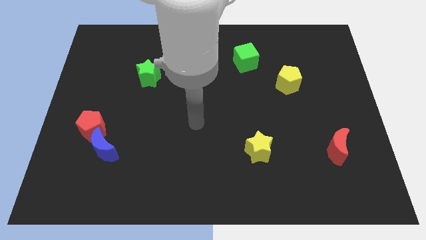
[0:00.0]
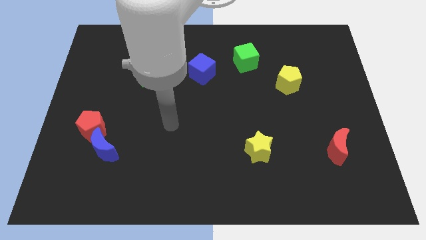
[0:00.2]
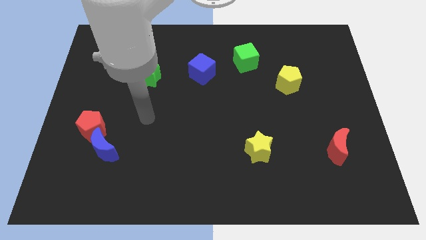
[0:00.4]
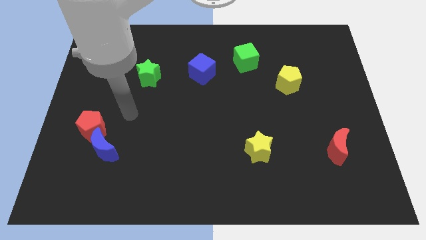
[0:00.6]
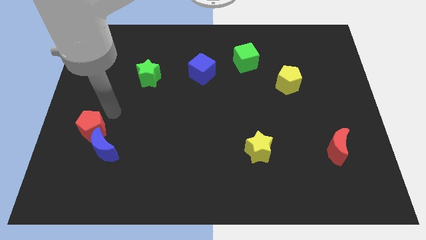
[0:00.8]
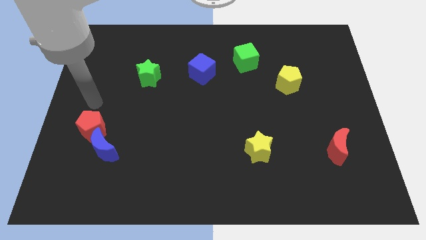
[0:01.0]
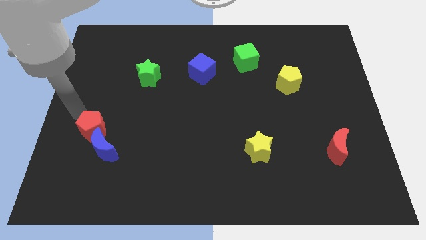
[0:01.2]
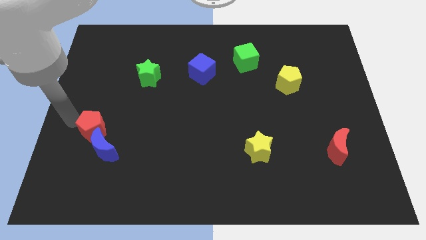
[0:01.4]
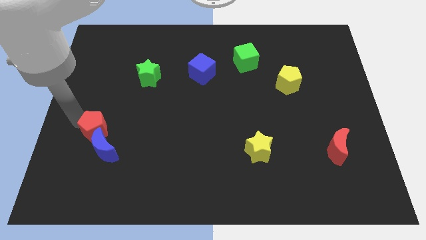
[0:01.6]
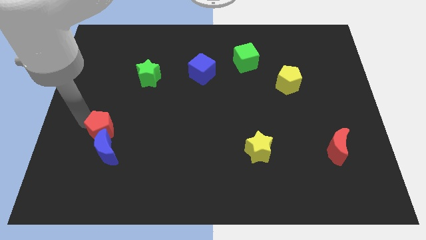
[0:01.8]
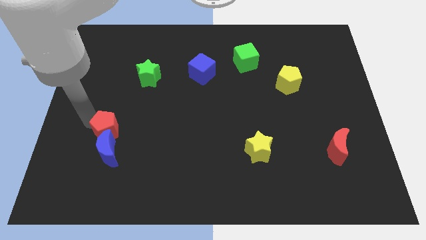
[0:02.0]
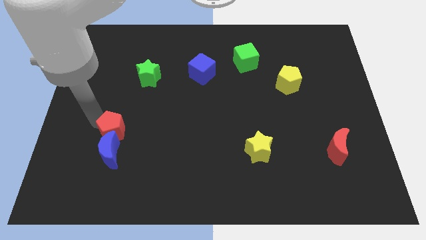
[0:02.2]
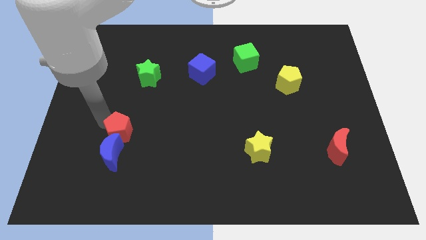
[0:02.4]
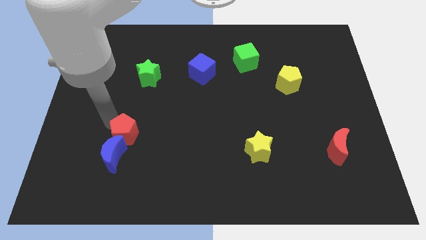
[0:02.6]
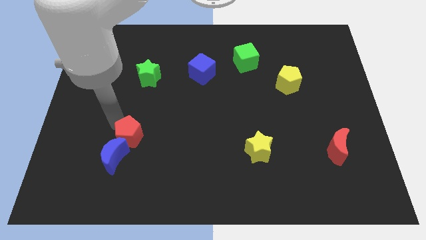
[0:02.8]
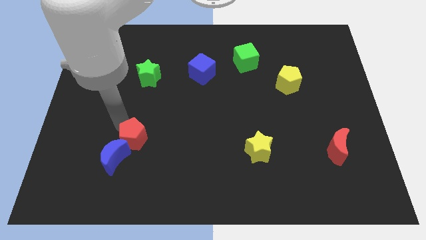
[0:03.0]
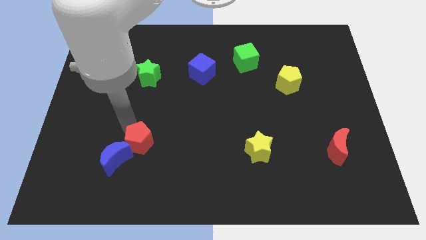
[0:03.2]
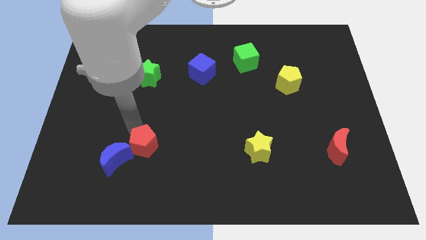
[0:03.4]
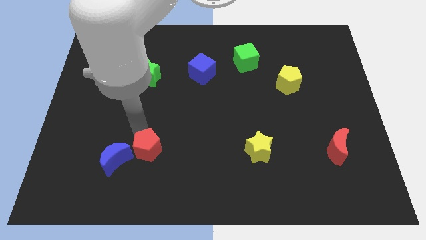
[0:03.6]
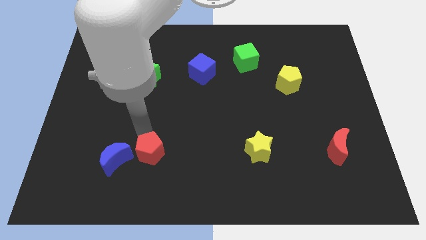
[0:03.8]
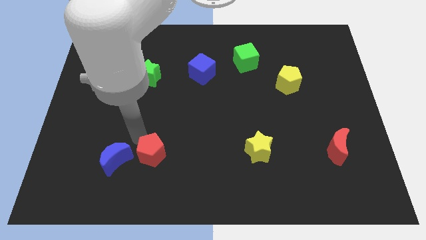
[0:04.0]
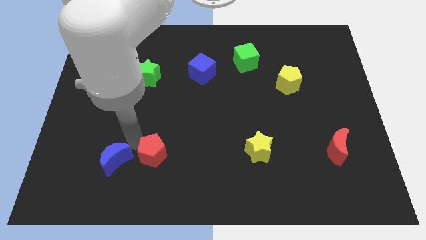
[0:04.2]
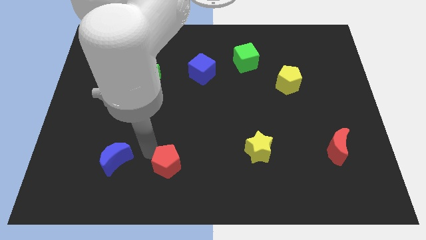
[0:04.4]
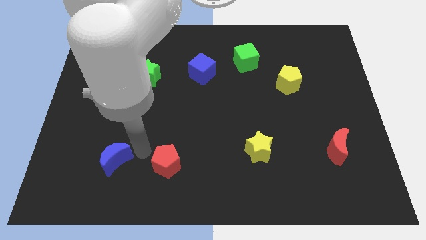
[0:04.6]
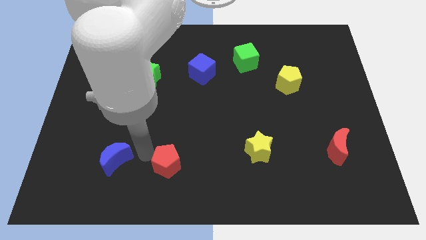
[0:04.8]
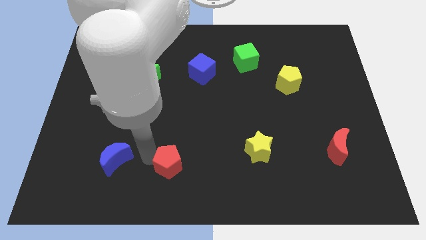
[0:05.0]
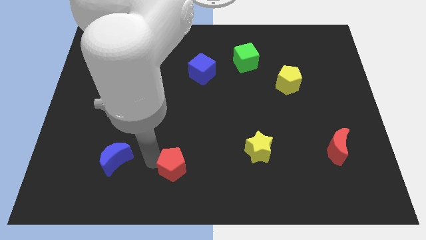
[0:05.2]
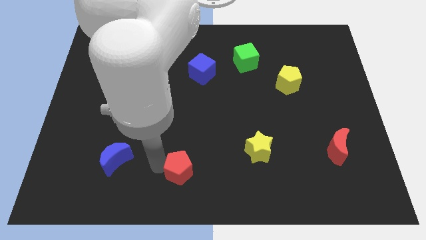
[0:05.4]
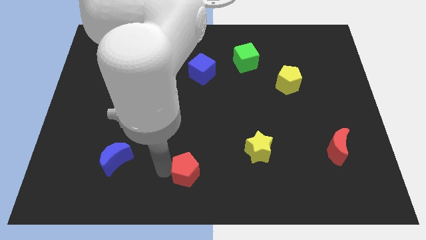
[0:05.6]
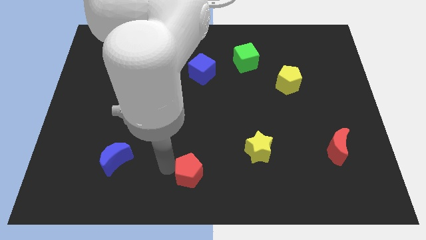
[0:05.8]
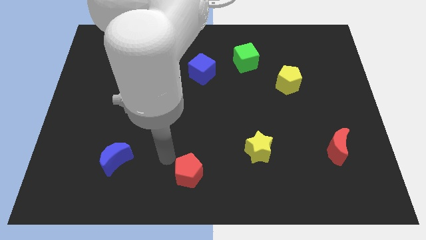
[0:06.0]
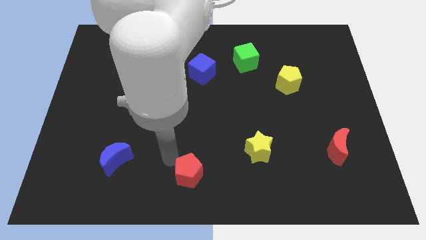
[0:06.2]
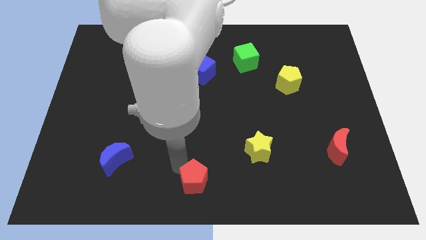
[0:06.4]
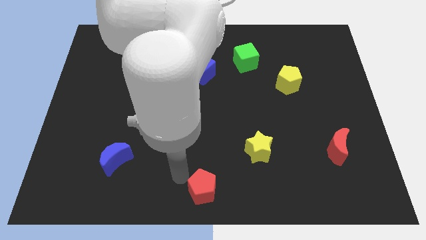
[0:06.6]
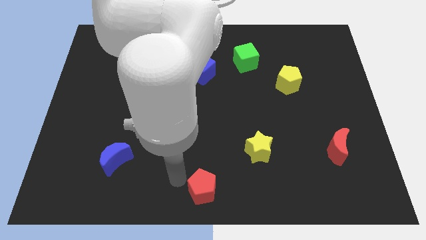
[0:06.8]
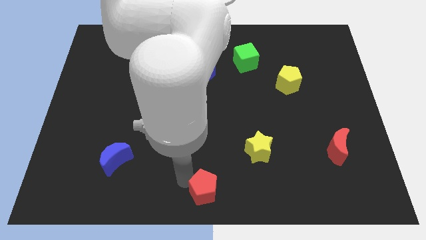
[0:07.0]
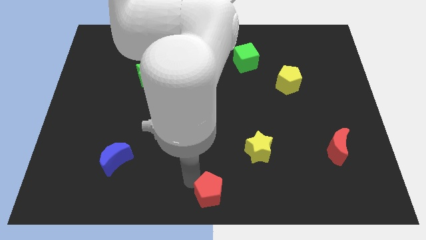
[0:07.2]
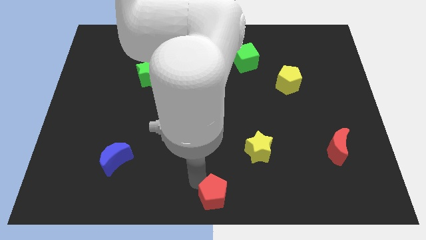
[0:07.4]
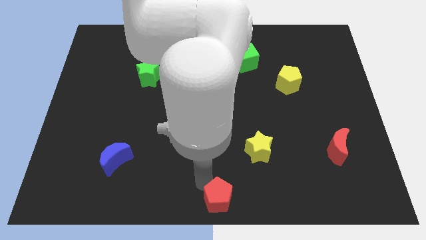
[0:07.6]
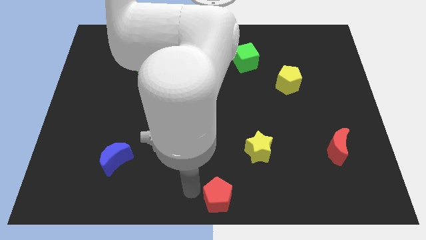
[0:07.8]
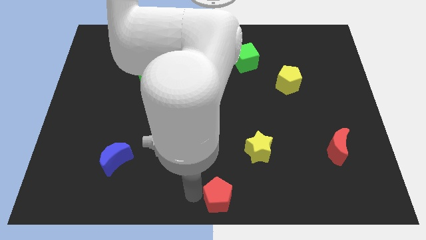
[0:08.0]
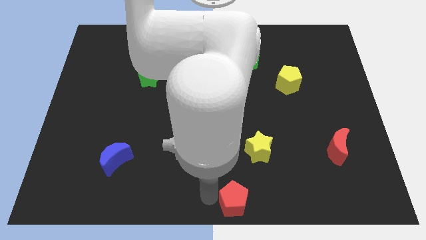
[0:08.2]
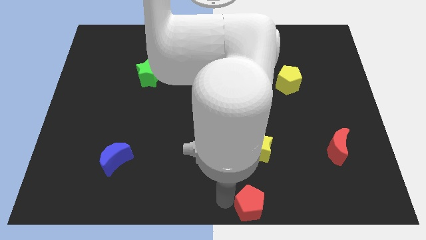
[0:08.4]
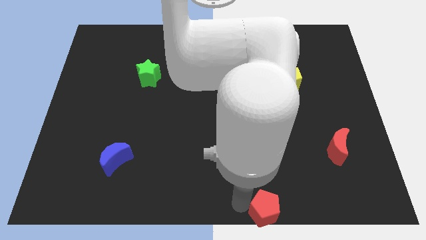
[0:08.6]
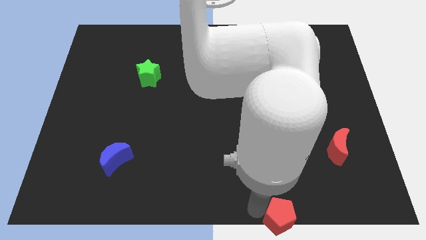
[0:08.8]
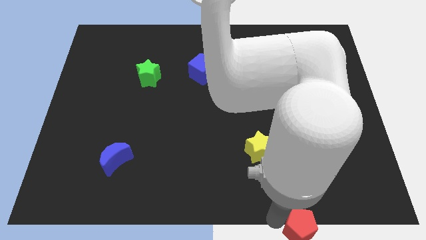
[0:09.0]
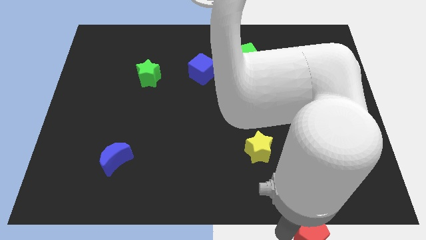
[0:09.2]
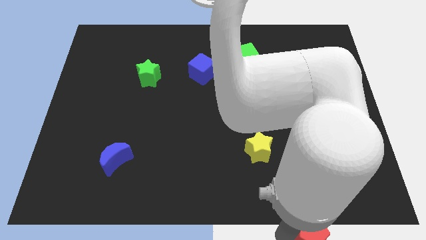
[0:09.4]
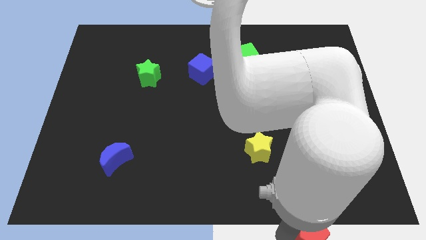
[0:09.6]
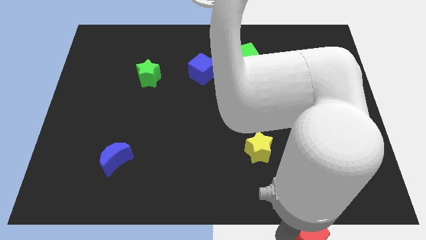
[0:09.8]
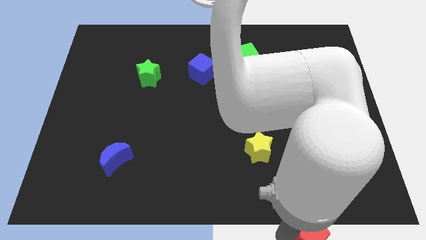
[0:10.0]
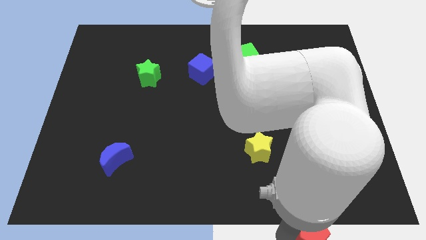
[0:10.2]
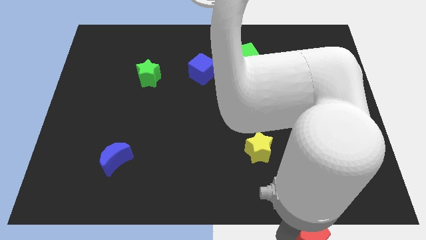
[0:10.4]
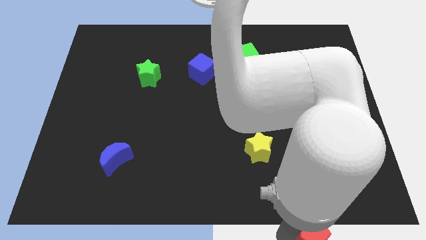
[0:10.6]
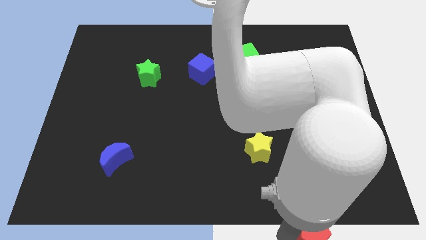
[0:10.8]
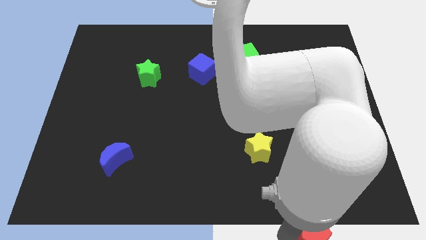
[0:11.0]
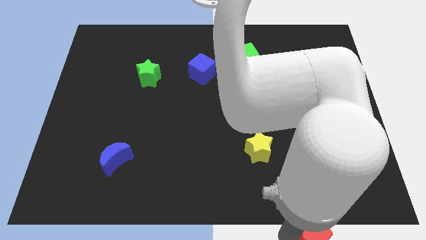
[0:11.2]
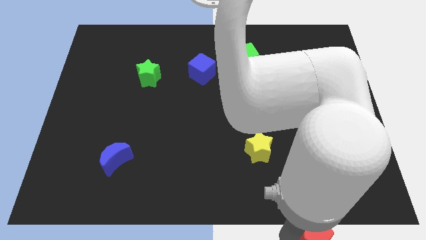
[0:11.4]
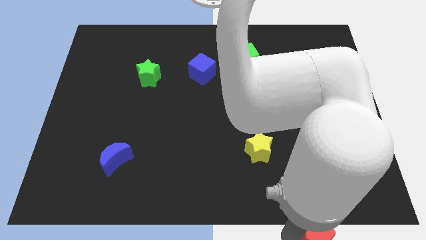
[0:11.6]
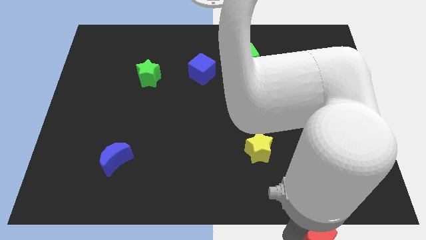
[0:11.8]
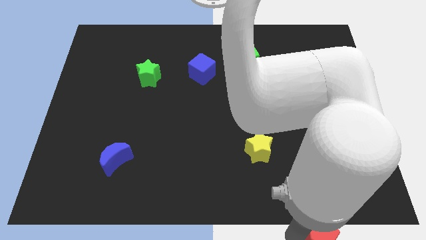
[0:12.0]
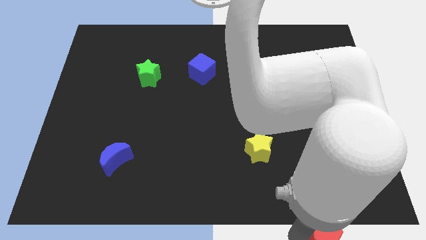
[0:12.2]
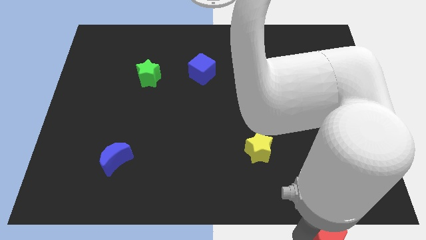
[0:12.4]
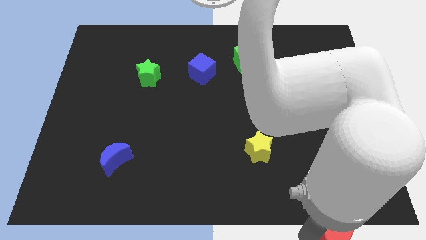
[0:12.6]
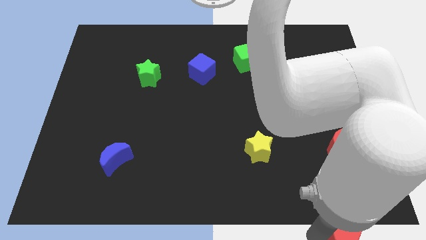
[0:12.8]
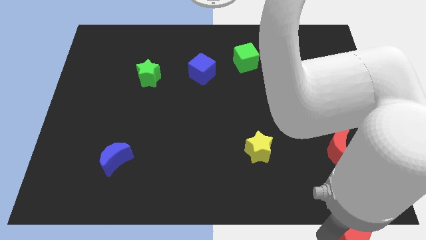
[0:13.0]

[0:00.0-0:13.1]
put the red pentagon to the bottom right corner
